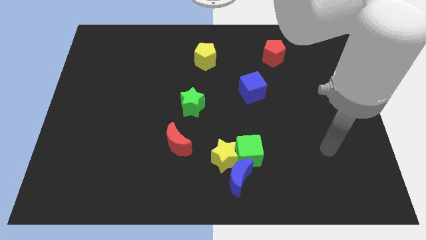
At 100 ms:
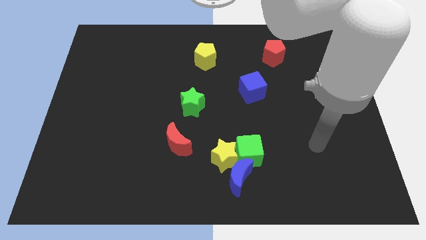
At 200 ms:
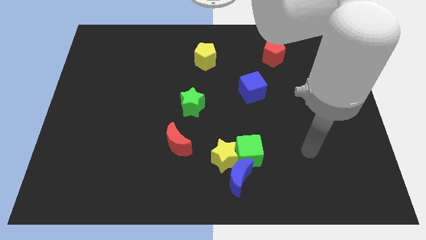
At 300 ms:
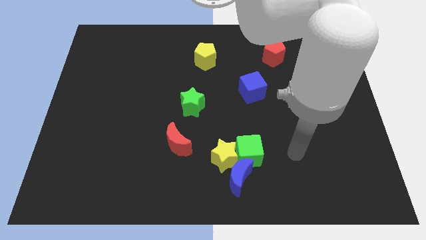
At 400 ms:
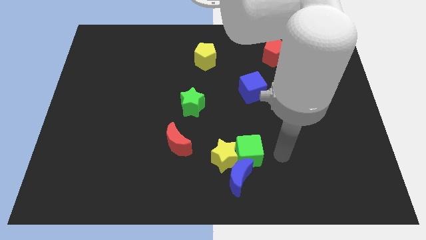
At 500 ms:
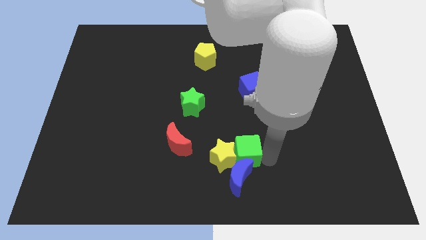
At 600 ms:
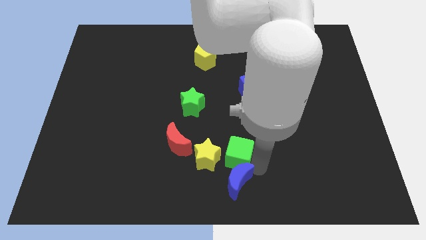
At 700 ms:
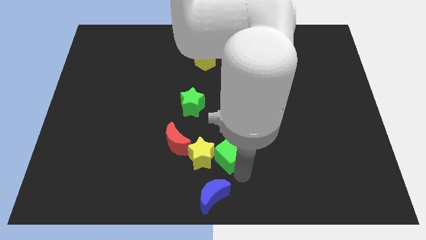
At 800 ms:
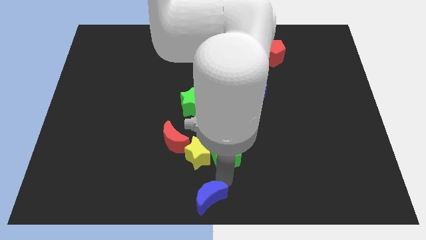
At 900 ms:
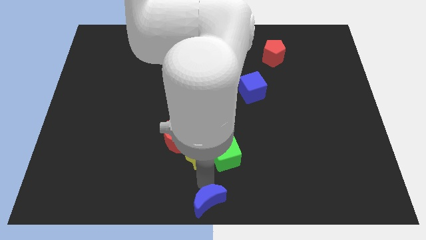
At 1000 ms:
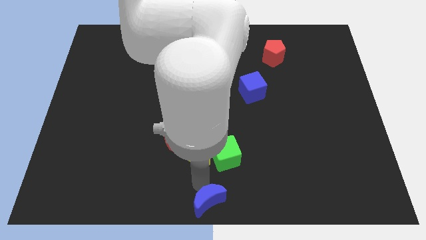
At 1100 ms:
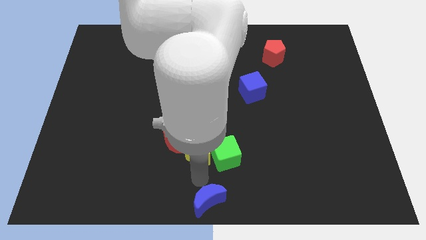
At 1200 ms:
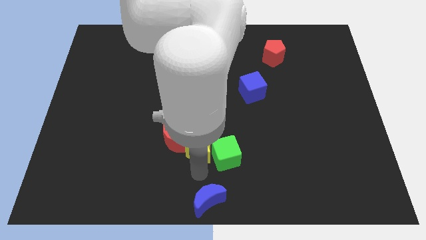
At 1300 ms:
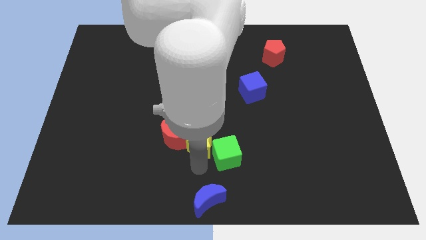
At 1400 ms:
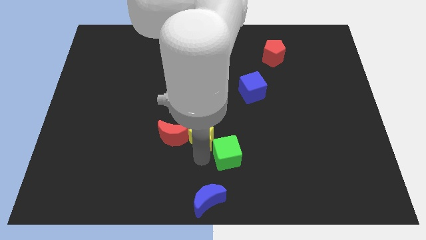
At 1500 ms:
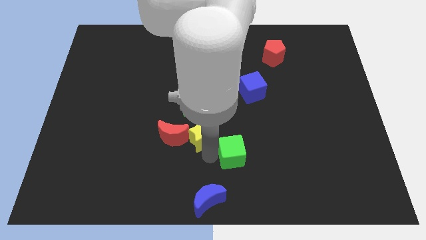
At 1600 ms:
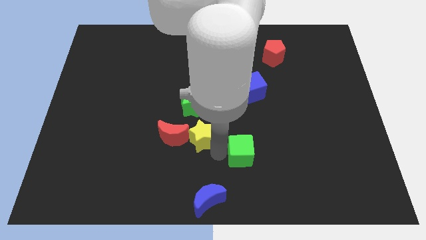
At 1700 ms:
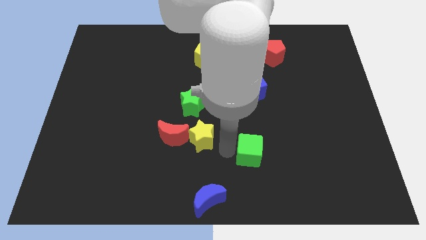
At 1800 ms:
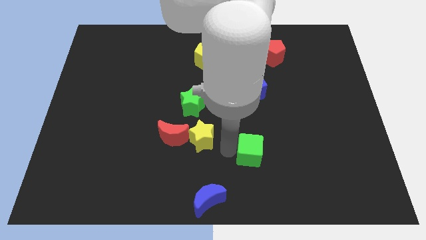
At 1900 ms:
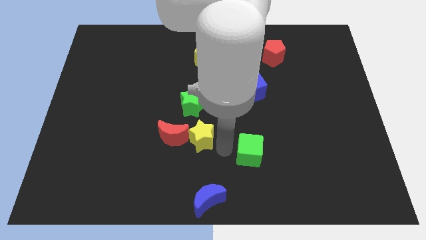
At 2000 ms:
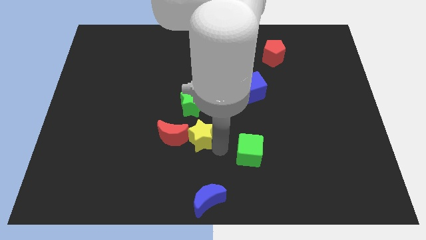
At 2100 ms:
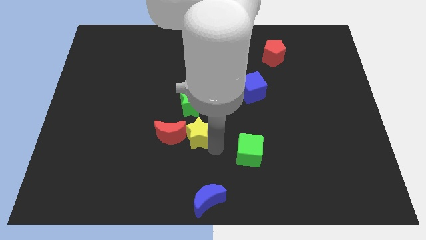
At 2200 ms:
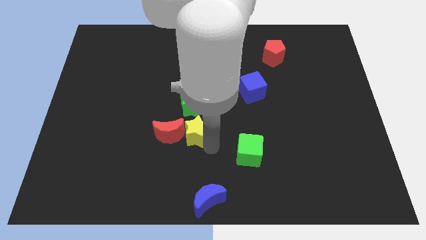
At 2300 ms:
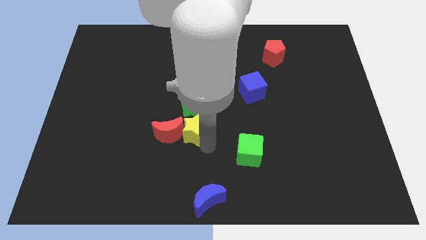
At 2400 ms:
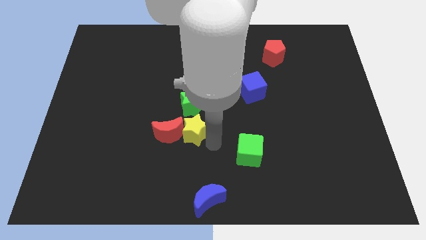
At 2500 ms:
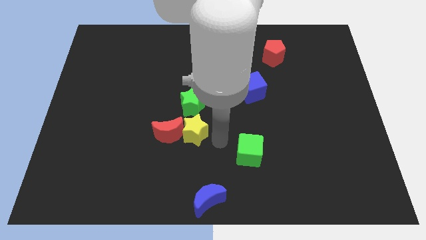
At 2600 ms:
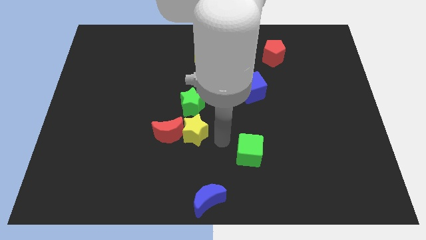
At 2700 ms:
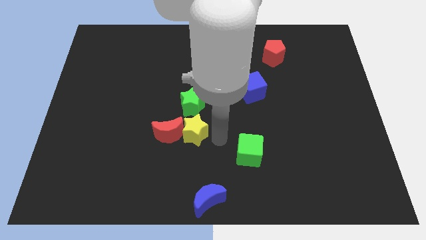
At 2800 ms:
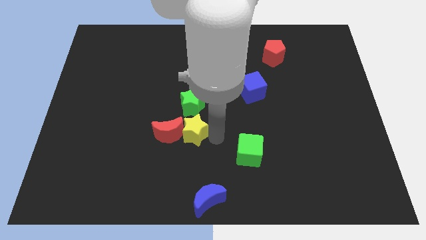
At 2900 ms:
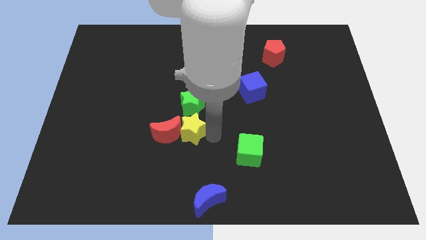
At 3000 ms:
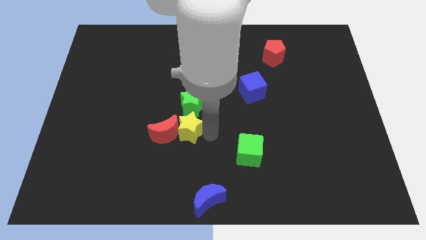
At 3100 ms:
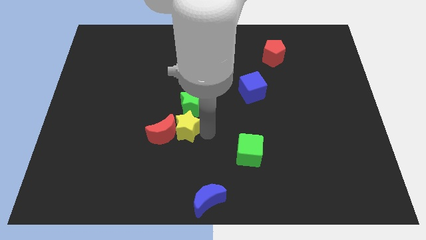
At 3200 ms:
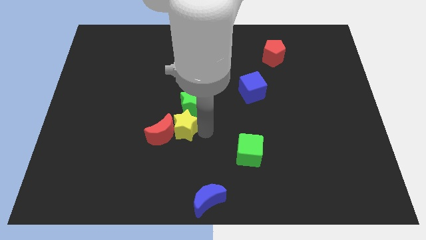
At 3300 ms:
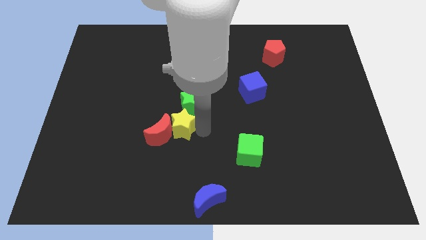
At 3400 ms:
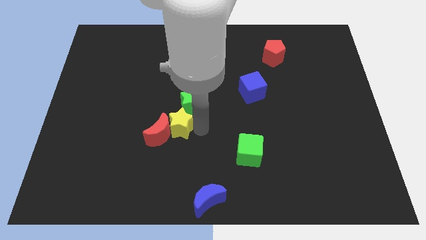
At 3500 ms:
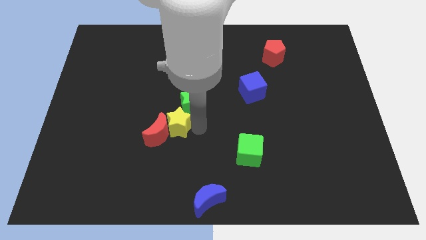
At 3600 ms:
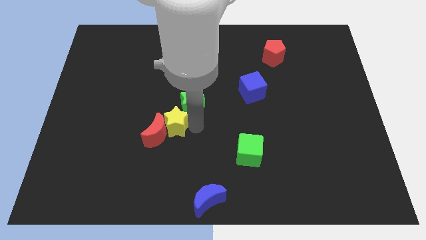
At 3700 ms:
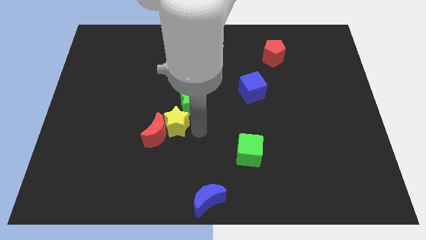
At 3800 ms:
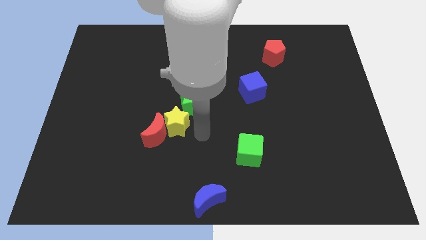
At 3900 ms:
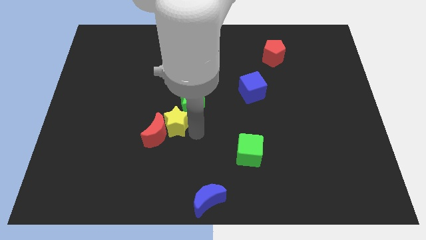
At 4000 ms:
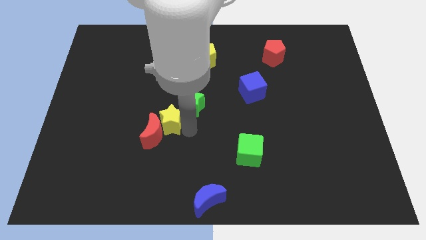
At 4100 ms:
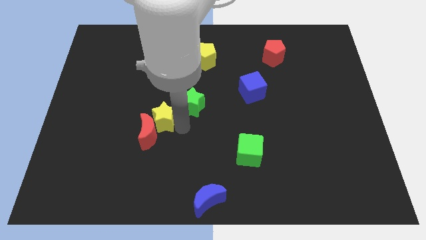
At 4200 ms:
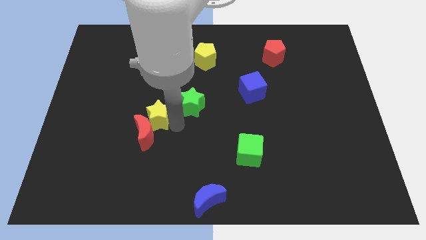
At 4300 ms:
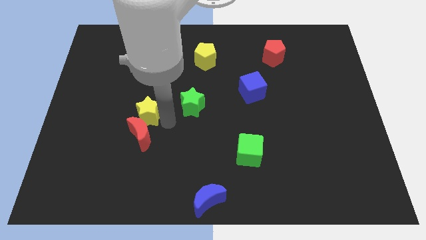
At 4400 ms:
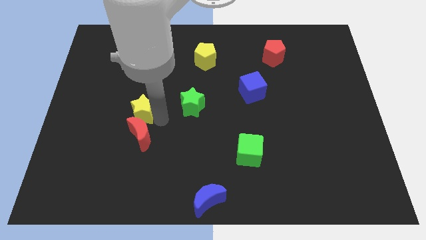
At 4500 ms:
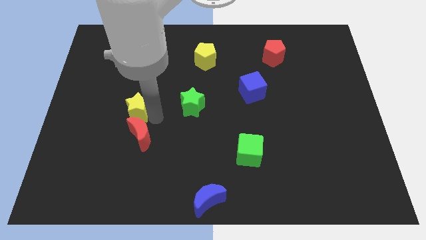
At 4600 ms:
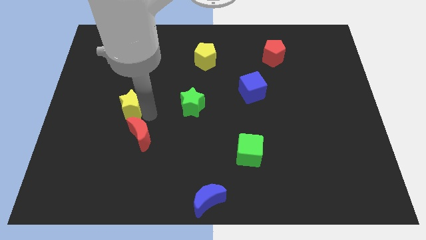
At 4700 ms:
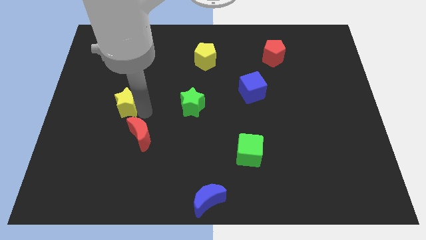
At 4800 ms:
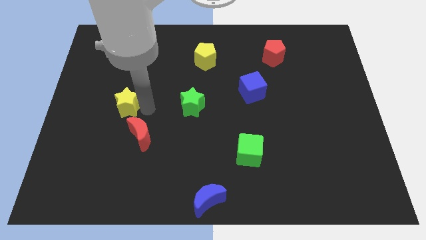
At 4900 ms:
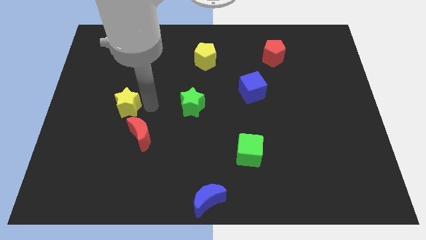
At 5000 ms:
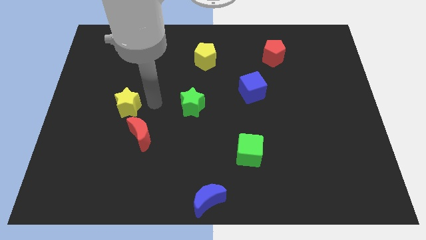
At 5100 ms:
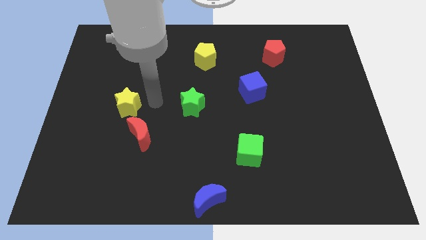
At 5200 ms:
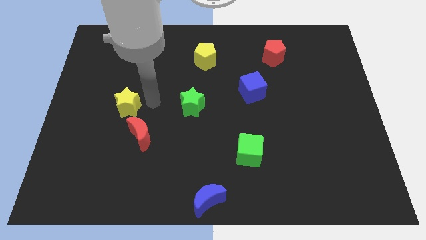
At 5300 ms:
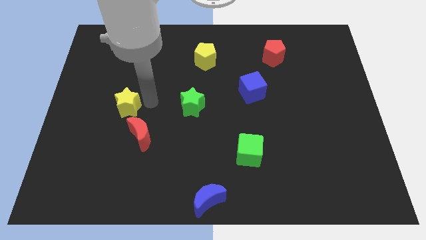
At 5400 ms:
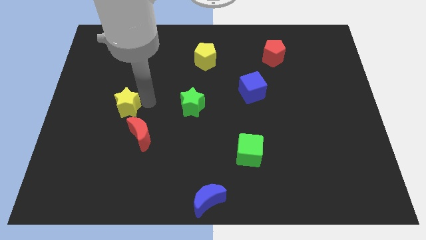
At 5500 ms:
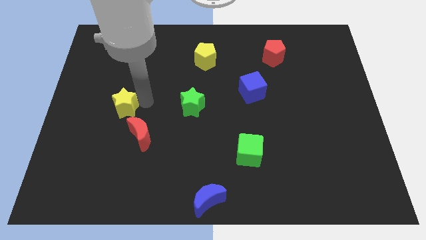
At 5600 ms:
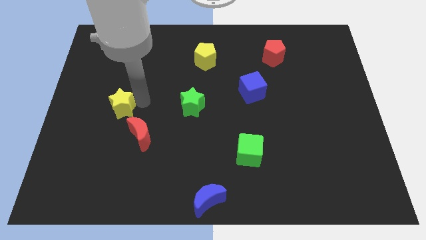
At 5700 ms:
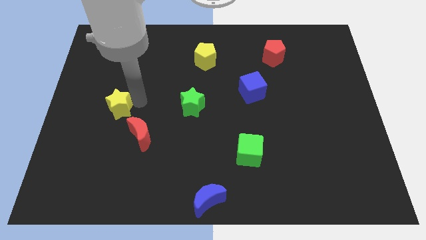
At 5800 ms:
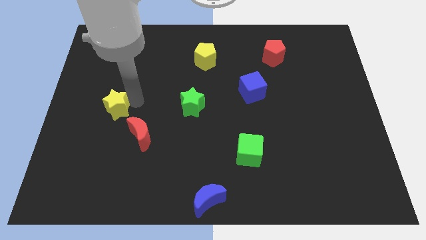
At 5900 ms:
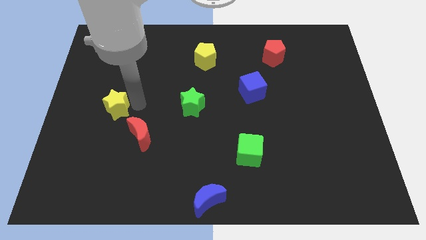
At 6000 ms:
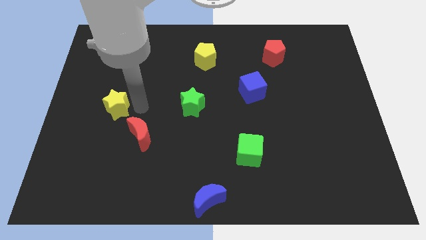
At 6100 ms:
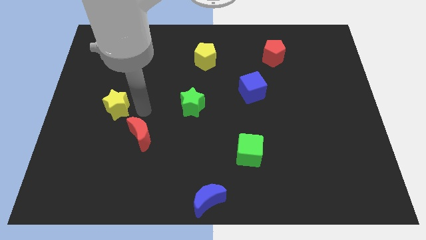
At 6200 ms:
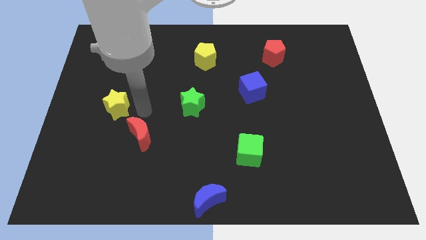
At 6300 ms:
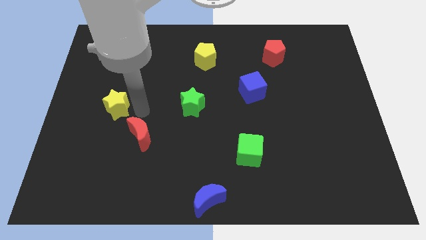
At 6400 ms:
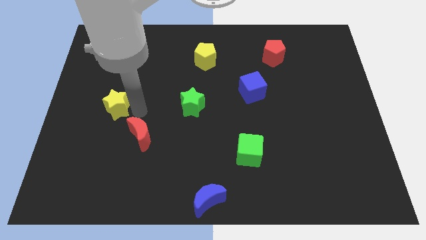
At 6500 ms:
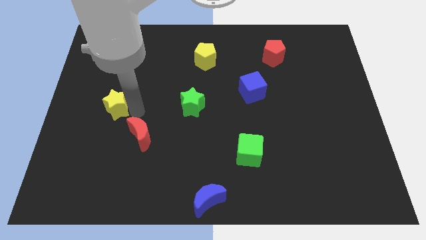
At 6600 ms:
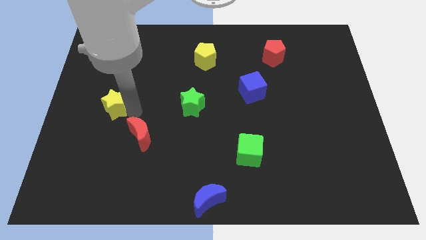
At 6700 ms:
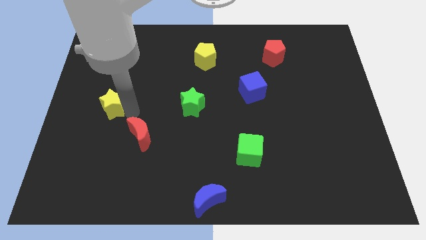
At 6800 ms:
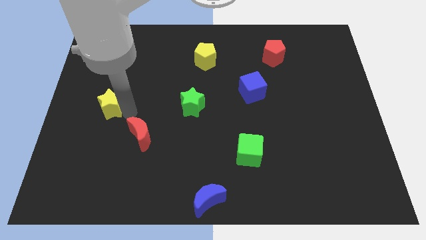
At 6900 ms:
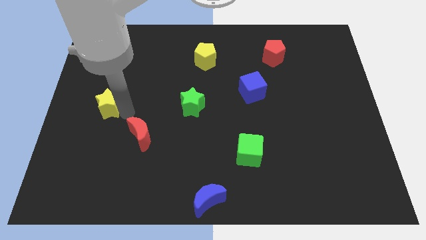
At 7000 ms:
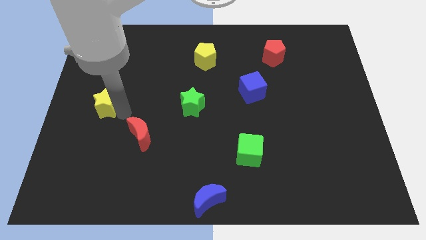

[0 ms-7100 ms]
move the yellow star to the center left
